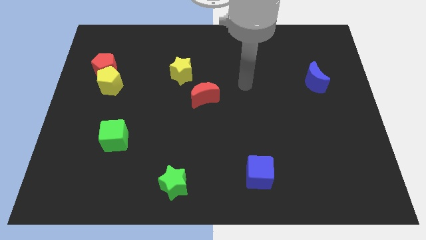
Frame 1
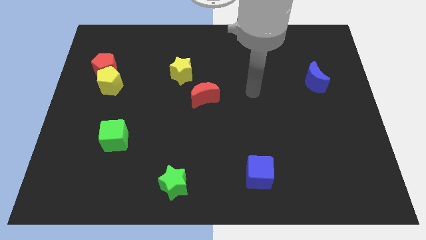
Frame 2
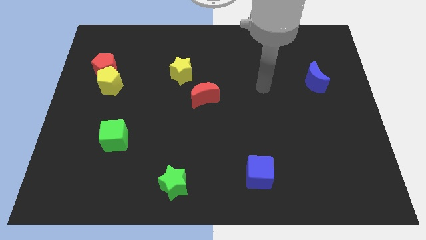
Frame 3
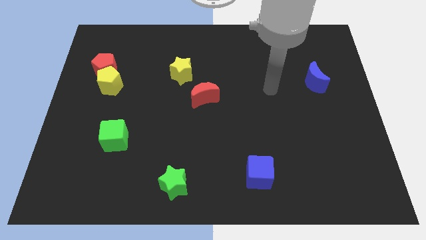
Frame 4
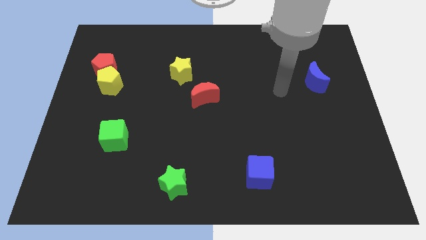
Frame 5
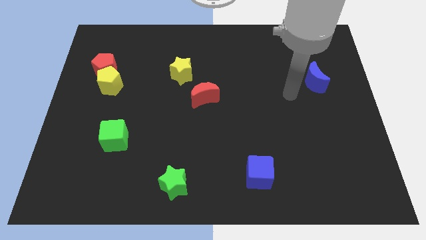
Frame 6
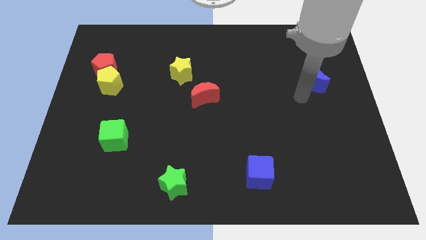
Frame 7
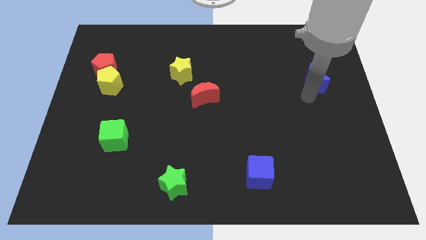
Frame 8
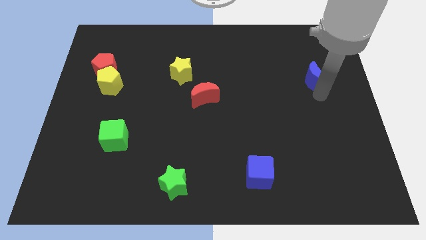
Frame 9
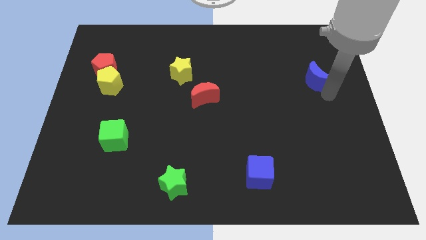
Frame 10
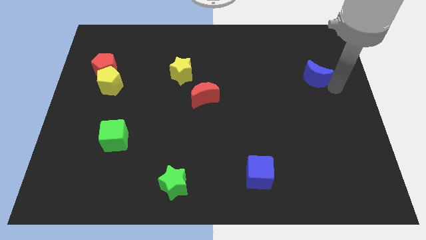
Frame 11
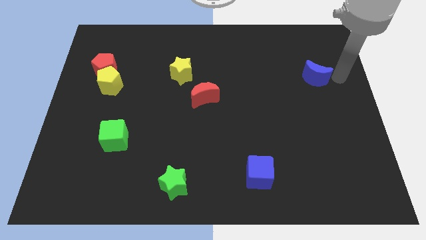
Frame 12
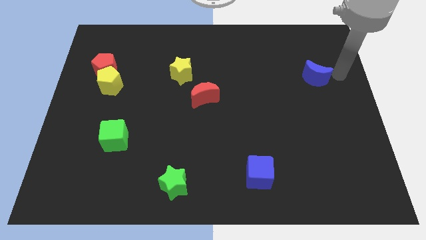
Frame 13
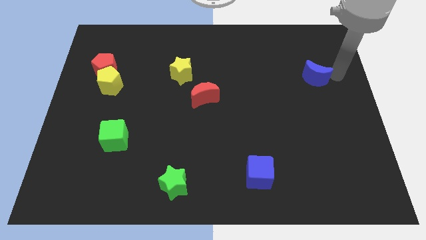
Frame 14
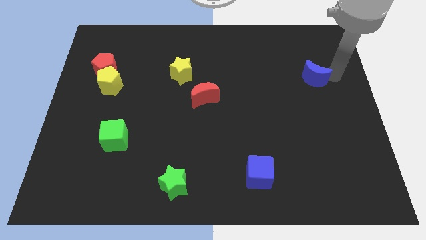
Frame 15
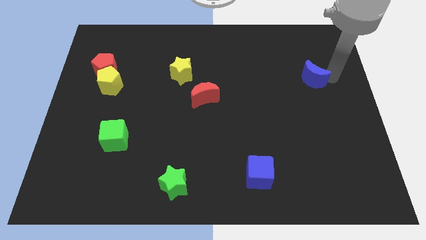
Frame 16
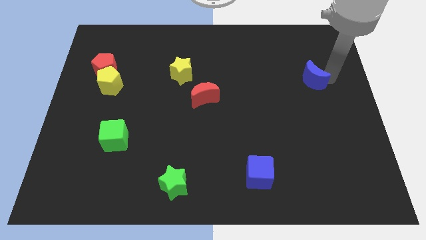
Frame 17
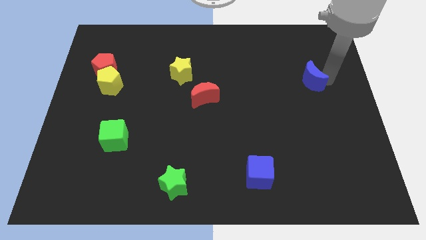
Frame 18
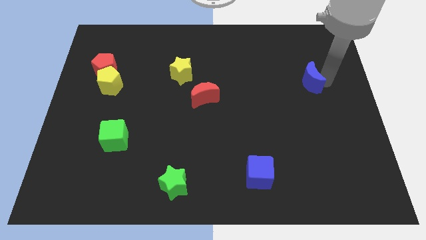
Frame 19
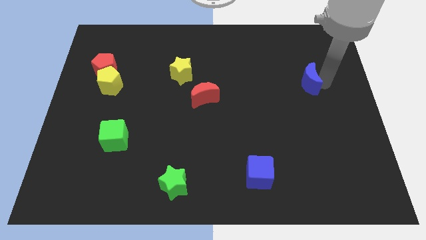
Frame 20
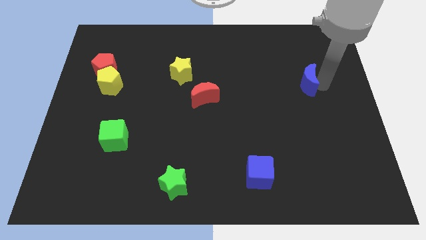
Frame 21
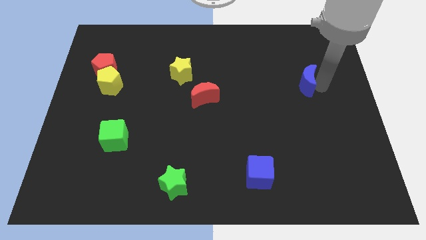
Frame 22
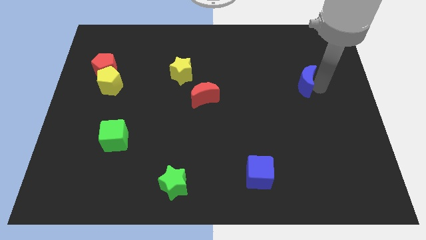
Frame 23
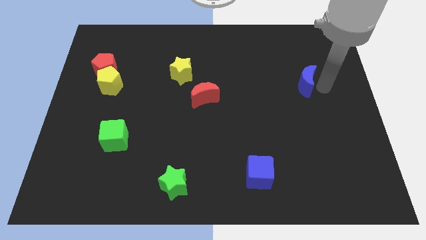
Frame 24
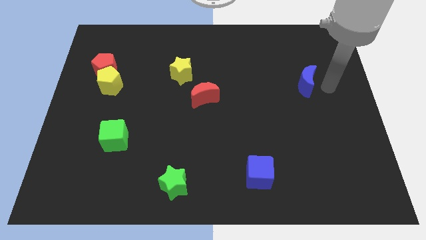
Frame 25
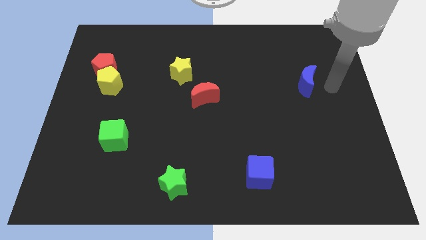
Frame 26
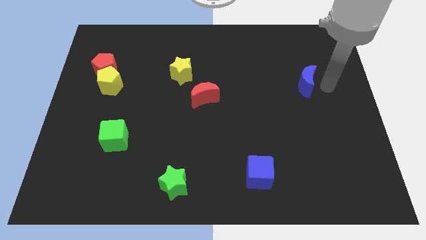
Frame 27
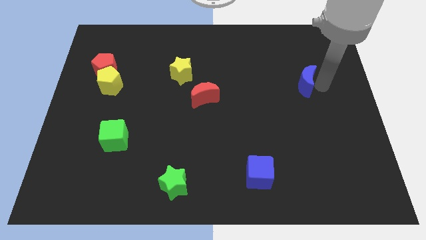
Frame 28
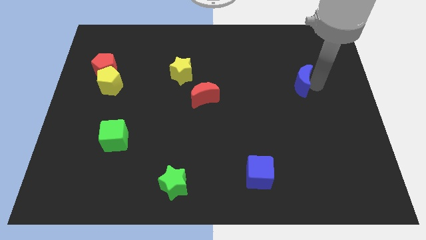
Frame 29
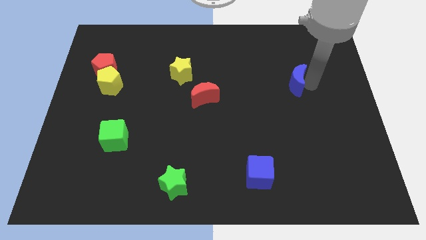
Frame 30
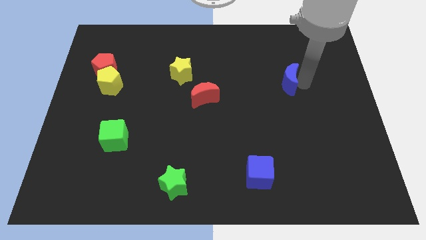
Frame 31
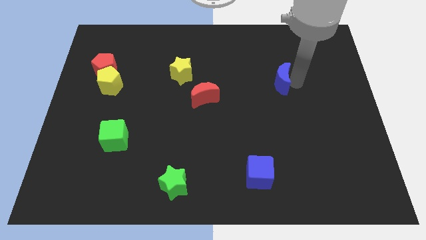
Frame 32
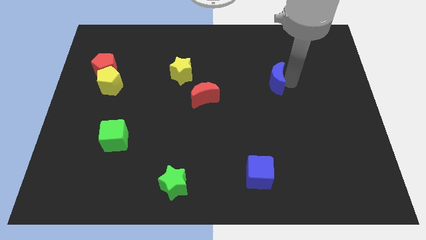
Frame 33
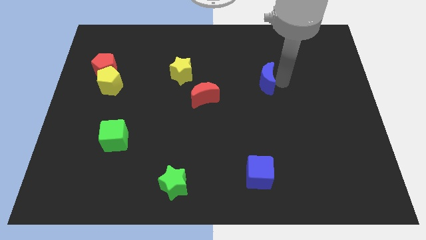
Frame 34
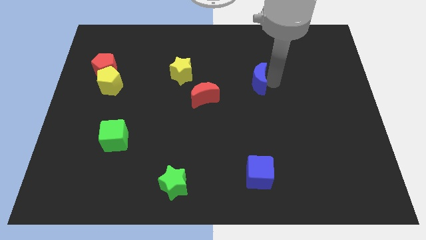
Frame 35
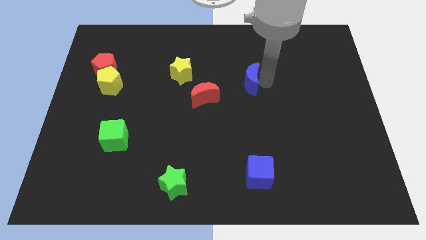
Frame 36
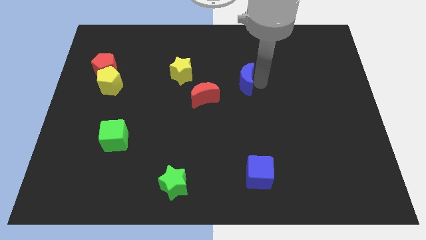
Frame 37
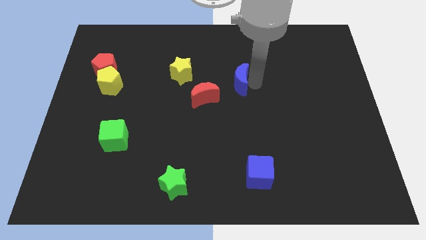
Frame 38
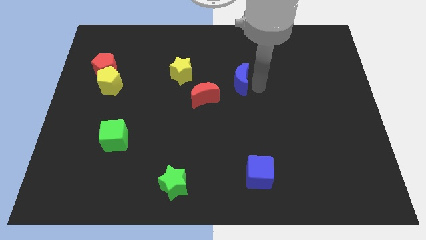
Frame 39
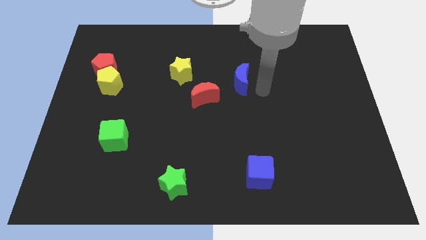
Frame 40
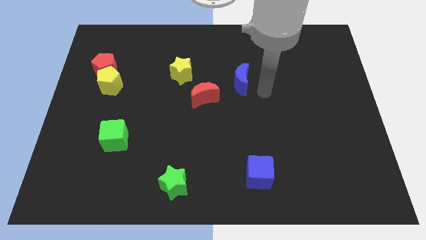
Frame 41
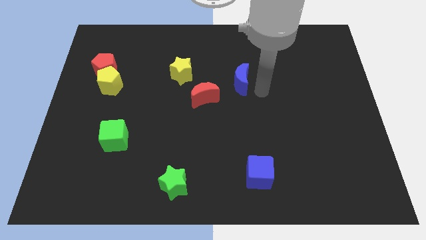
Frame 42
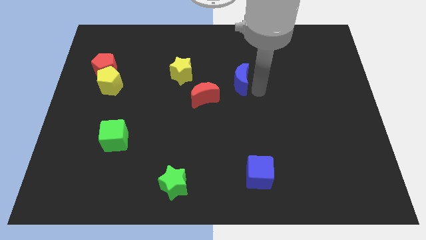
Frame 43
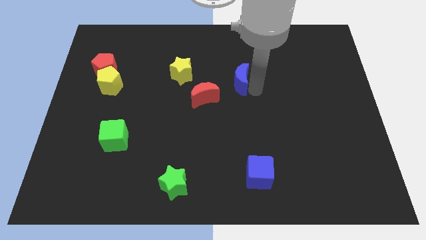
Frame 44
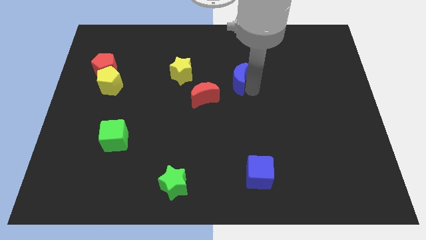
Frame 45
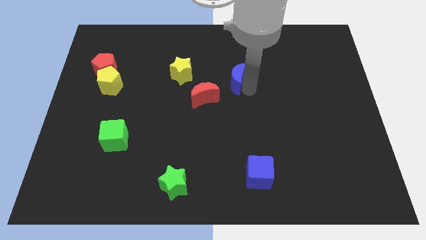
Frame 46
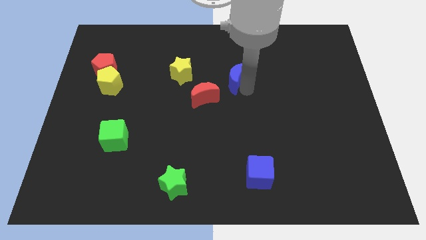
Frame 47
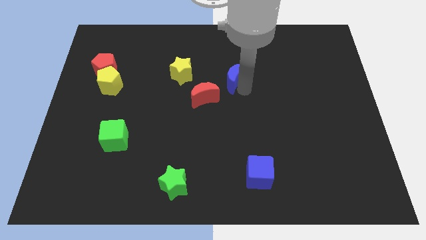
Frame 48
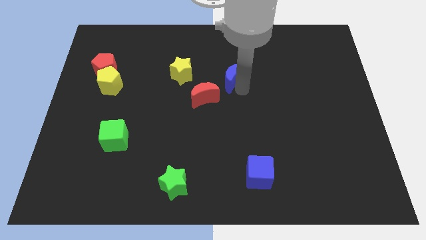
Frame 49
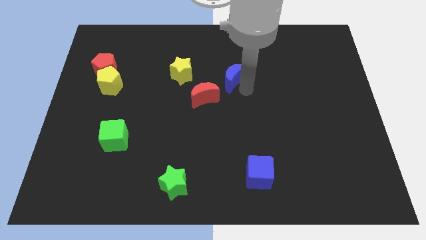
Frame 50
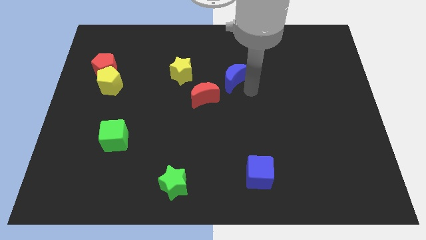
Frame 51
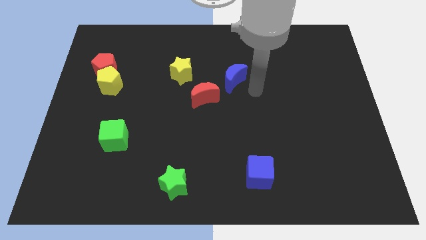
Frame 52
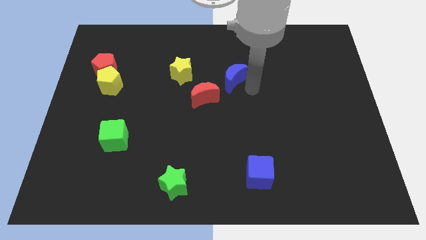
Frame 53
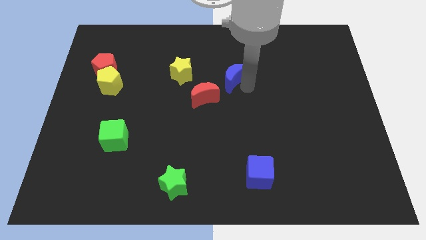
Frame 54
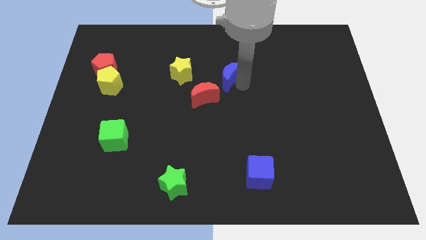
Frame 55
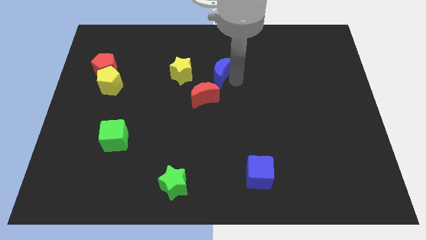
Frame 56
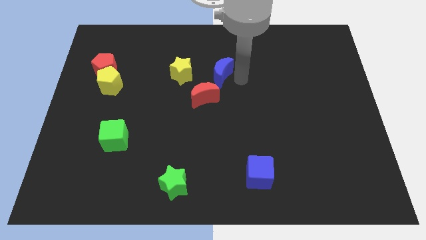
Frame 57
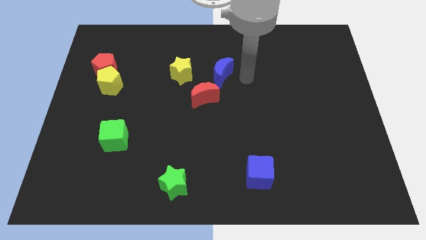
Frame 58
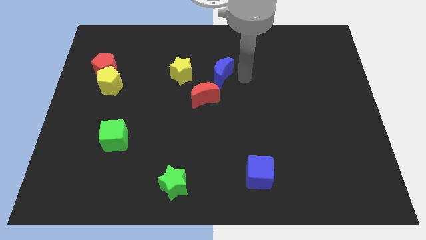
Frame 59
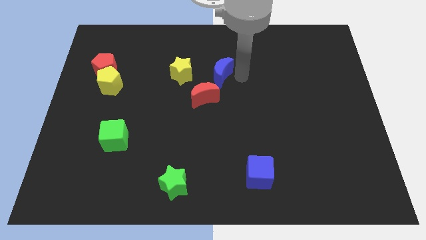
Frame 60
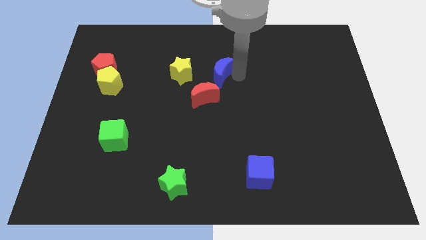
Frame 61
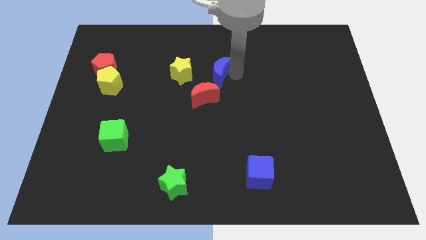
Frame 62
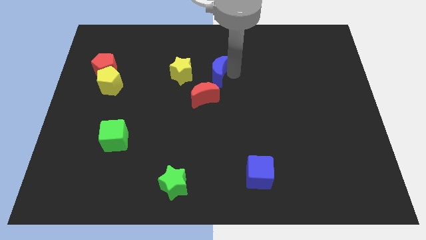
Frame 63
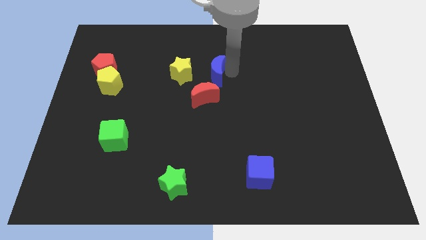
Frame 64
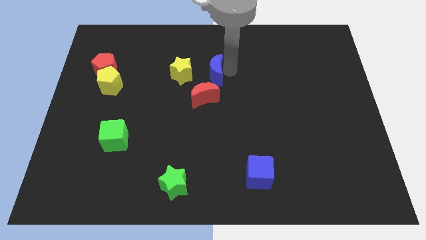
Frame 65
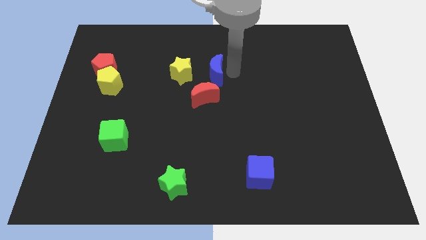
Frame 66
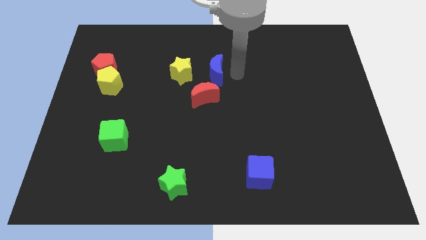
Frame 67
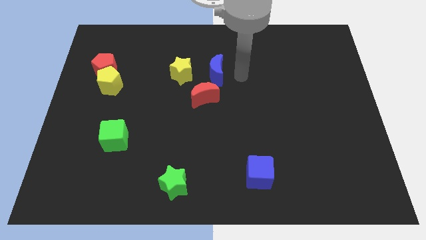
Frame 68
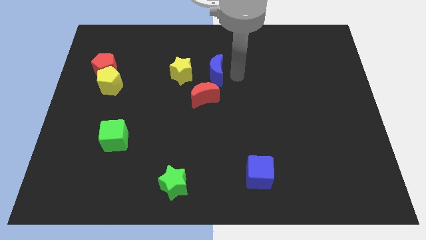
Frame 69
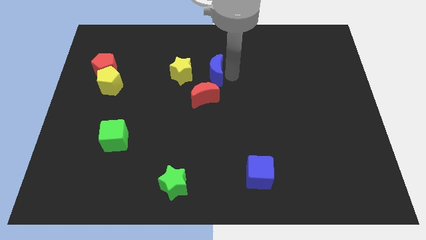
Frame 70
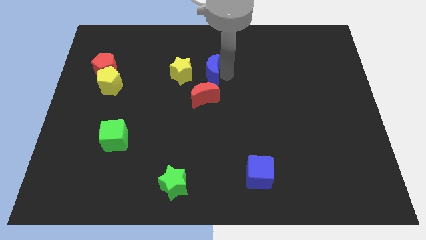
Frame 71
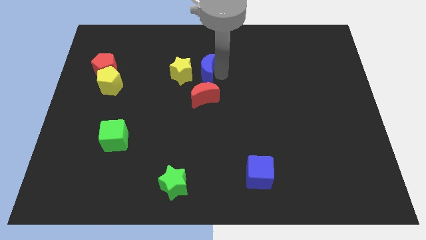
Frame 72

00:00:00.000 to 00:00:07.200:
push the blue moon towards the yellow star

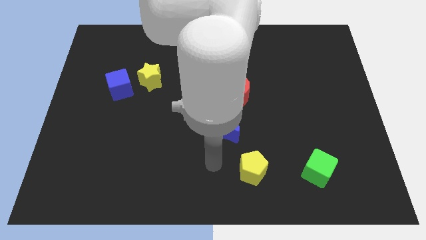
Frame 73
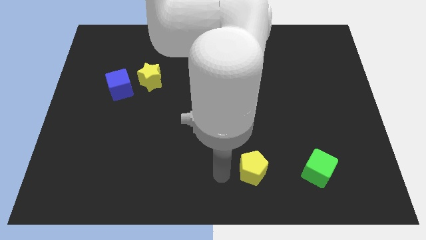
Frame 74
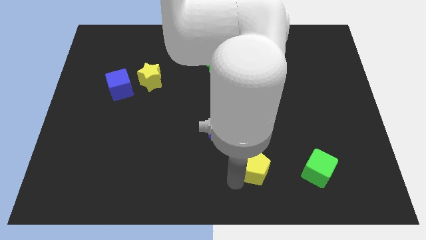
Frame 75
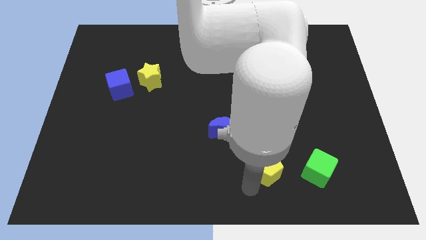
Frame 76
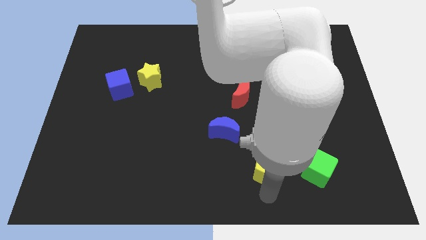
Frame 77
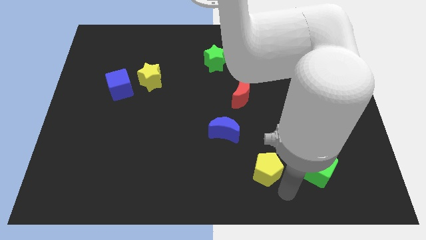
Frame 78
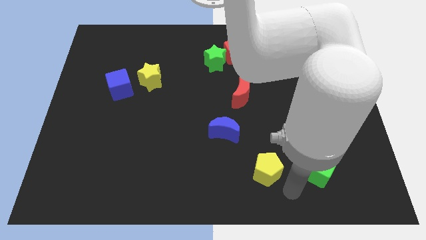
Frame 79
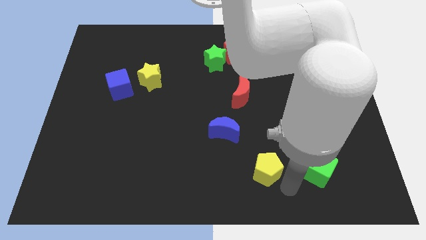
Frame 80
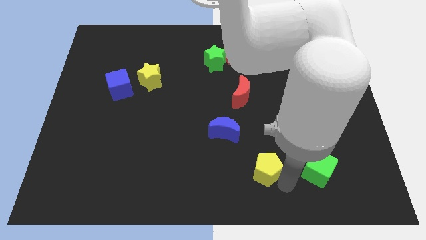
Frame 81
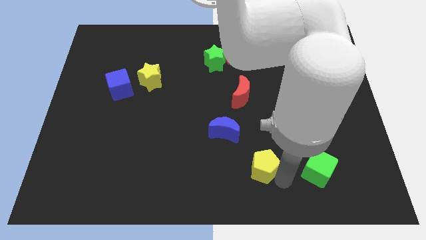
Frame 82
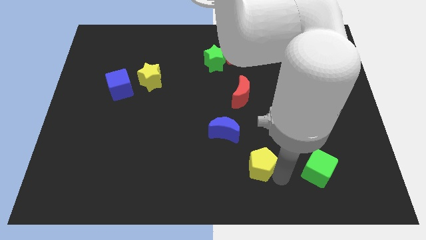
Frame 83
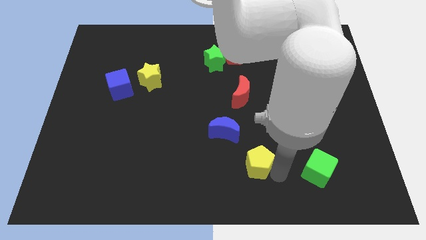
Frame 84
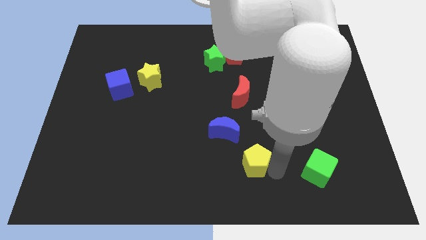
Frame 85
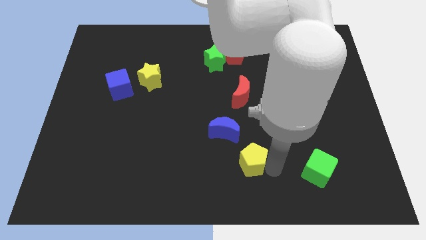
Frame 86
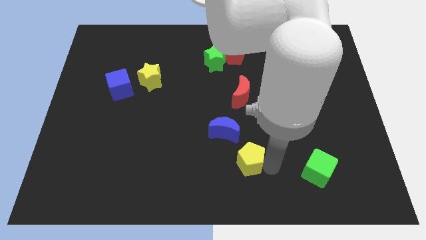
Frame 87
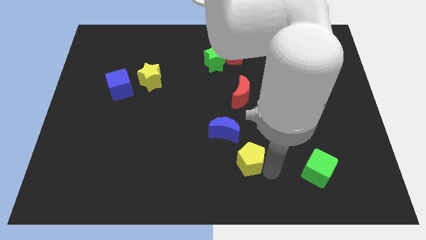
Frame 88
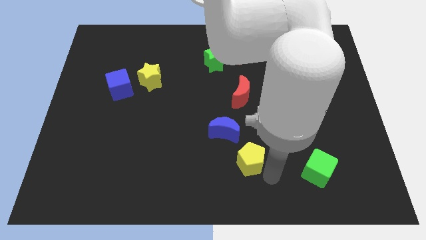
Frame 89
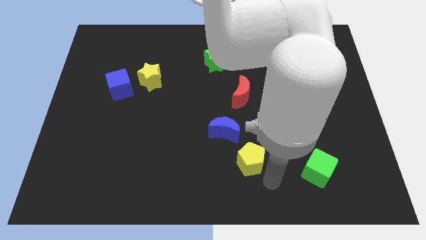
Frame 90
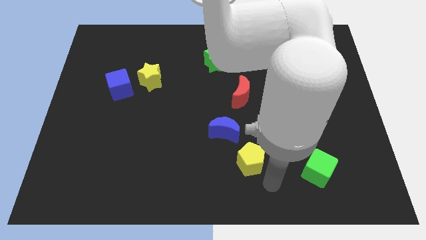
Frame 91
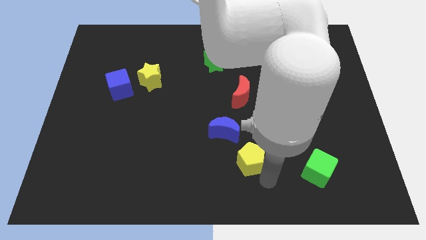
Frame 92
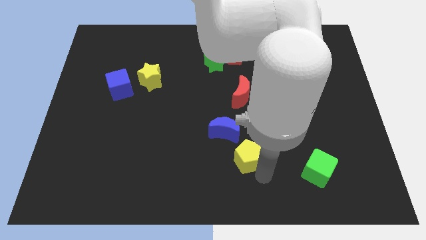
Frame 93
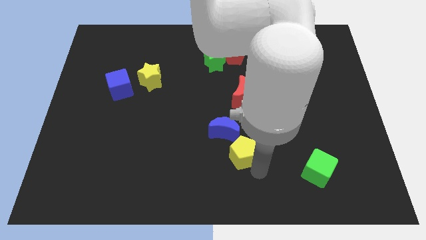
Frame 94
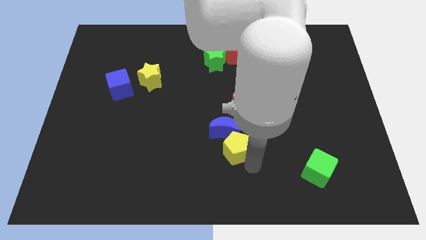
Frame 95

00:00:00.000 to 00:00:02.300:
push the yellow pentagon close to the blue moon
